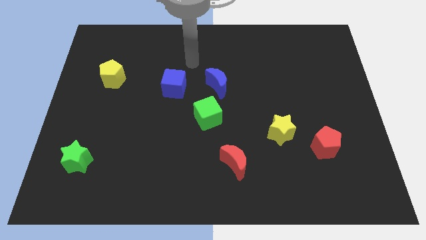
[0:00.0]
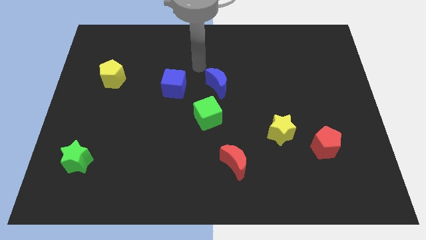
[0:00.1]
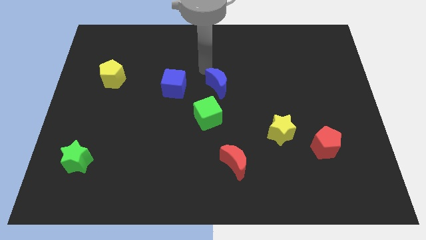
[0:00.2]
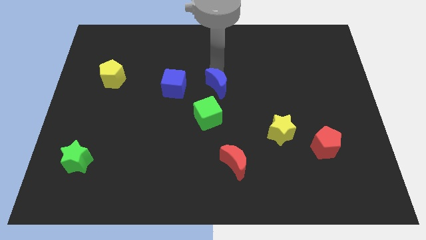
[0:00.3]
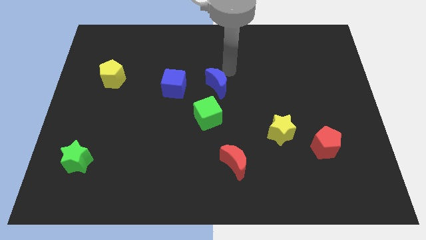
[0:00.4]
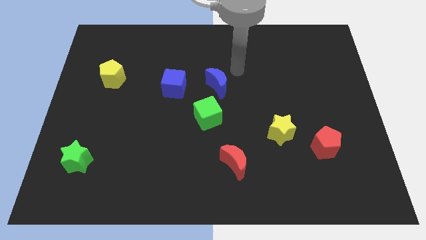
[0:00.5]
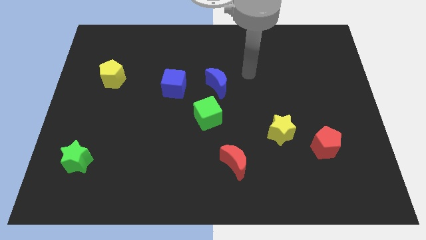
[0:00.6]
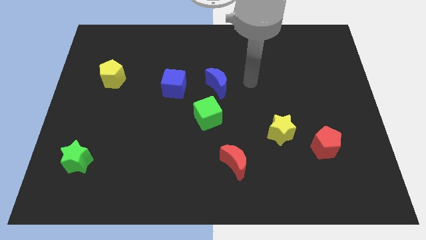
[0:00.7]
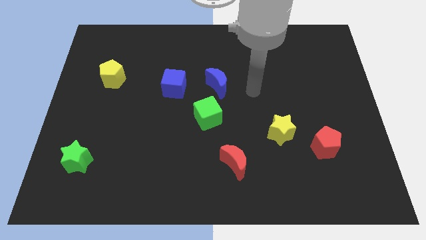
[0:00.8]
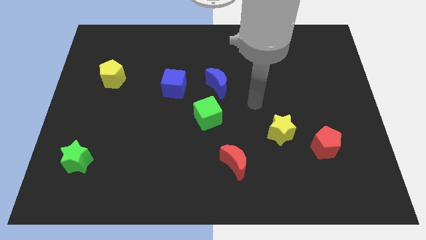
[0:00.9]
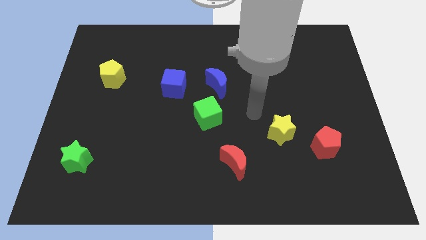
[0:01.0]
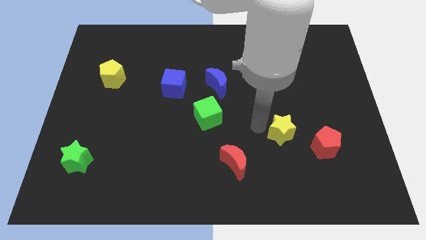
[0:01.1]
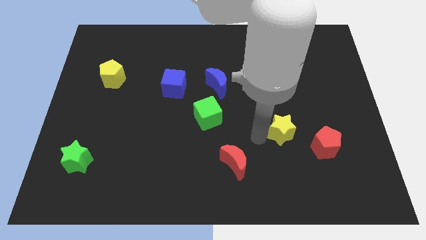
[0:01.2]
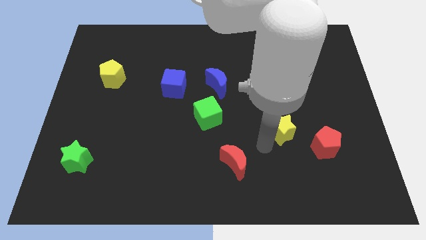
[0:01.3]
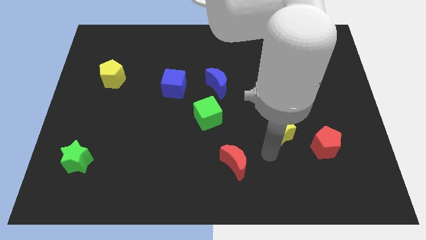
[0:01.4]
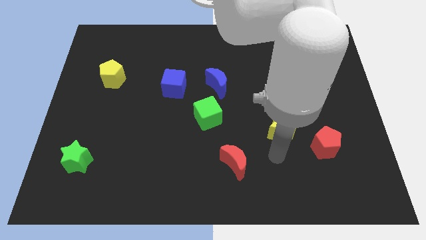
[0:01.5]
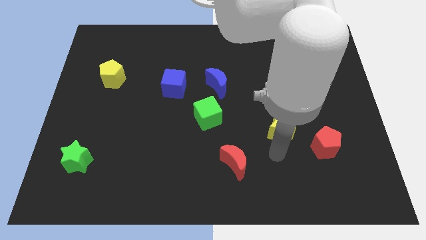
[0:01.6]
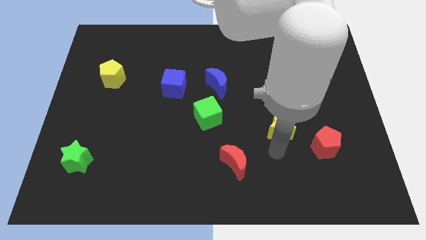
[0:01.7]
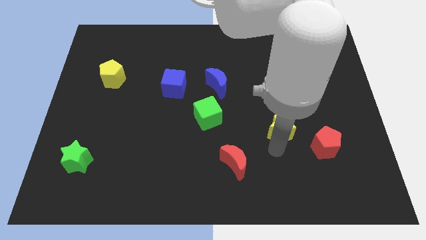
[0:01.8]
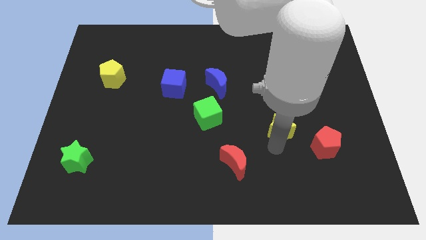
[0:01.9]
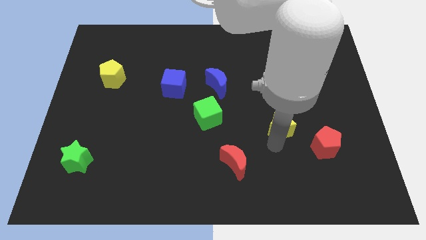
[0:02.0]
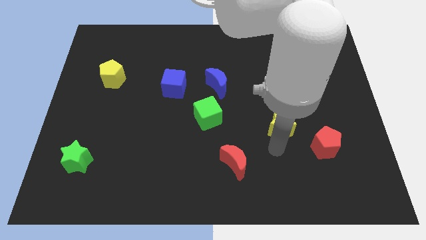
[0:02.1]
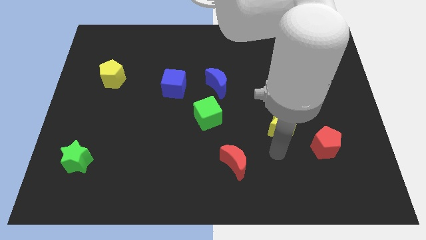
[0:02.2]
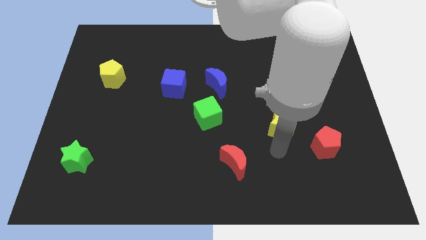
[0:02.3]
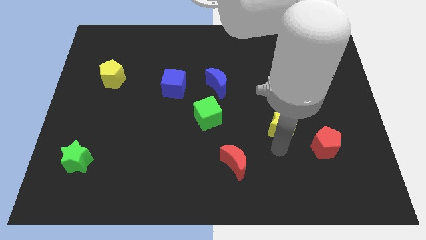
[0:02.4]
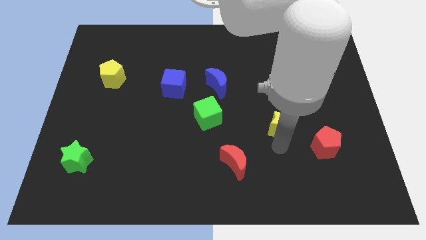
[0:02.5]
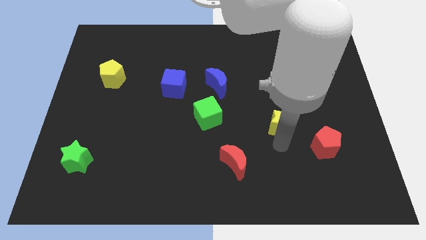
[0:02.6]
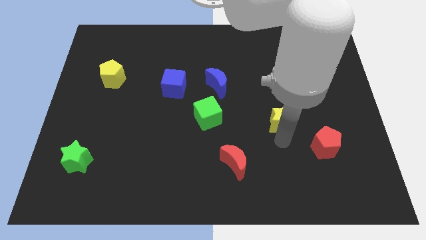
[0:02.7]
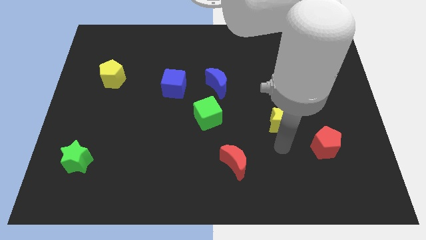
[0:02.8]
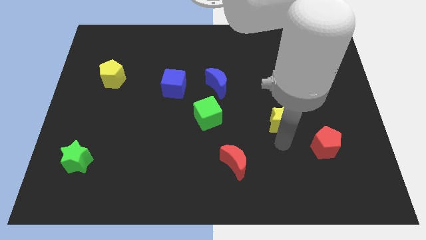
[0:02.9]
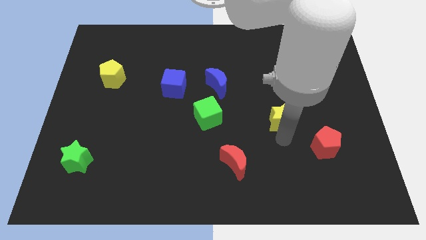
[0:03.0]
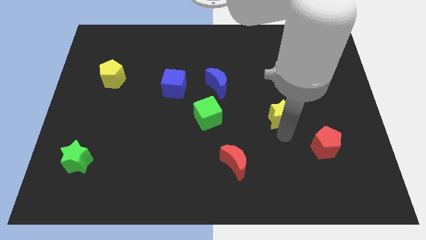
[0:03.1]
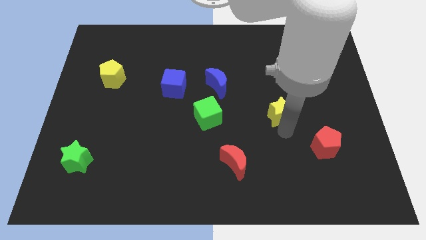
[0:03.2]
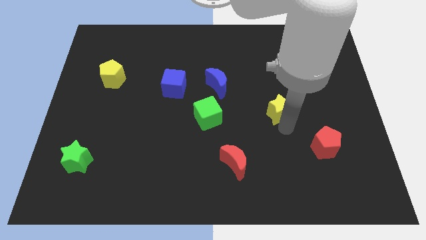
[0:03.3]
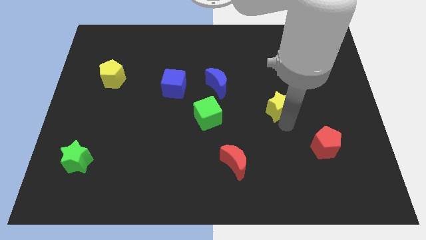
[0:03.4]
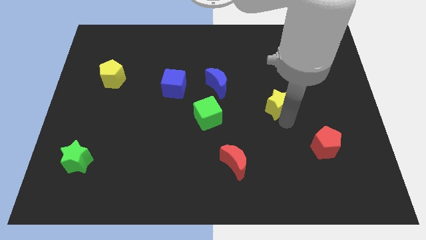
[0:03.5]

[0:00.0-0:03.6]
slide the yellow star up a bit

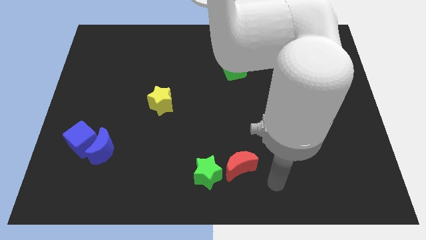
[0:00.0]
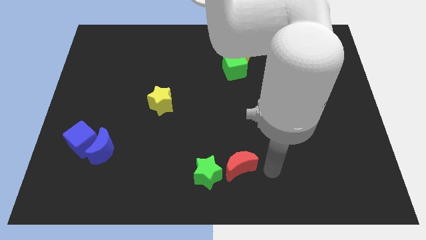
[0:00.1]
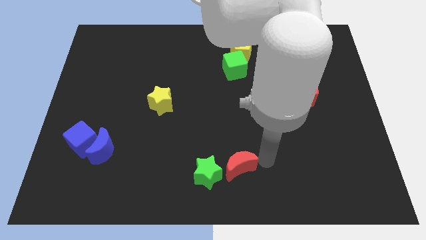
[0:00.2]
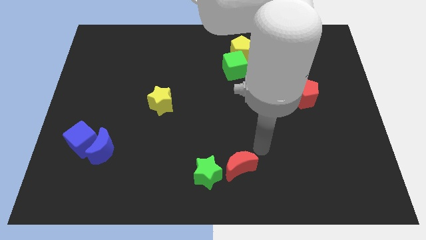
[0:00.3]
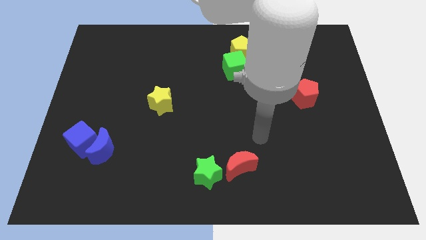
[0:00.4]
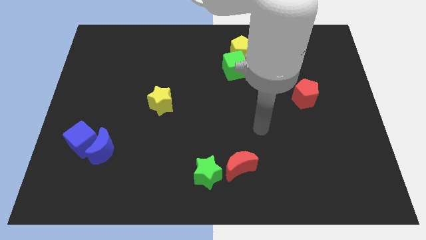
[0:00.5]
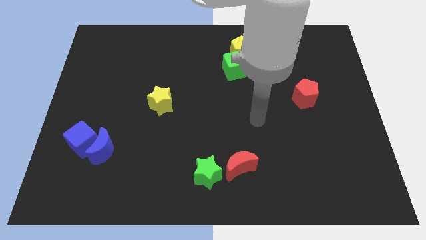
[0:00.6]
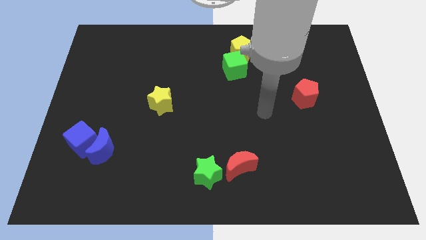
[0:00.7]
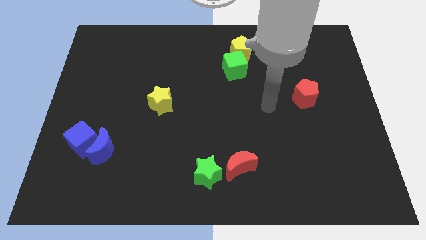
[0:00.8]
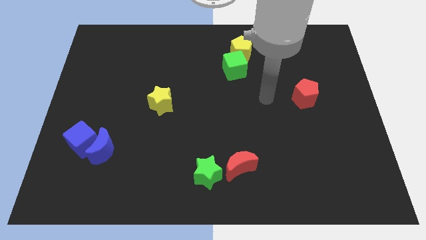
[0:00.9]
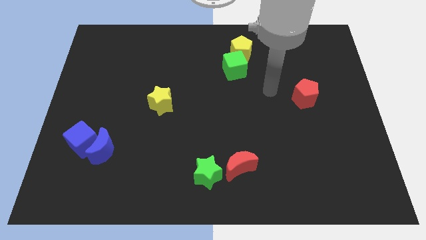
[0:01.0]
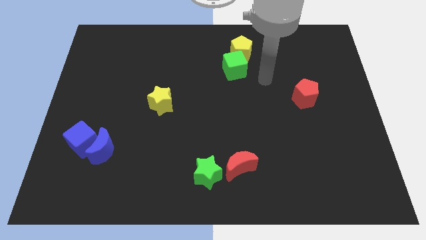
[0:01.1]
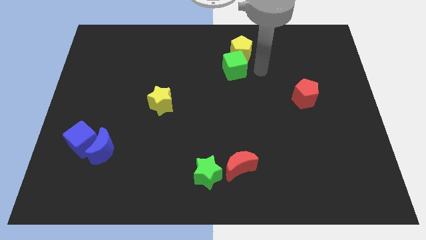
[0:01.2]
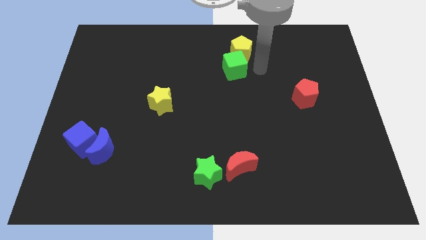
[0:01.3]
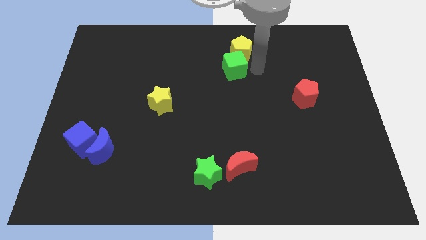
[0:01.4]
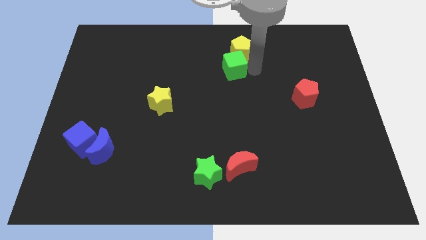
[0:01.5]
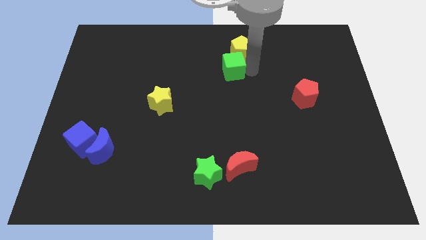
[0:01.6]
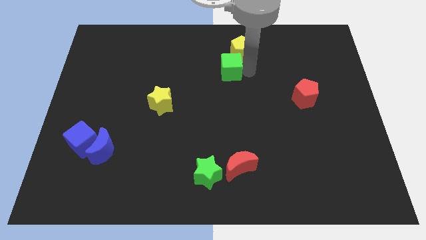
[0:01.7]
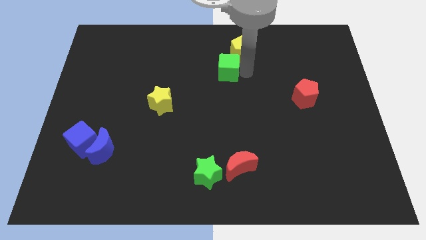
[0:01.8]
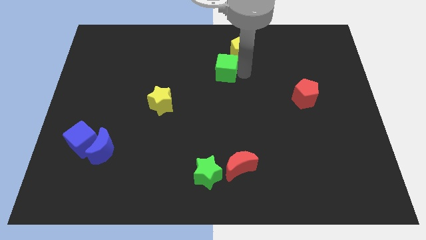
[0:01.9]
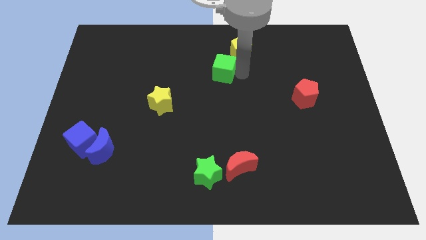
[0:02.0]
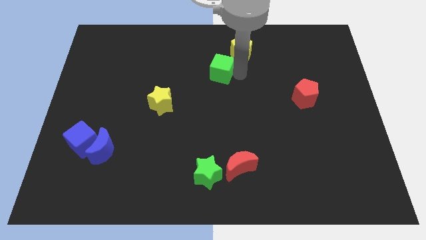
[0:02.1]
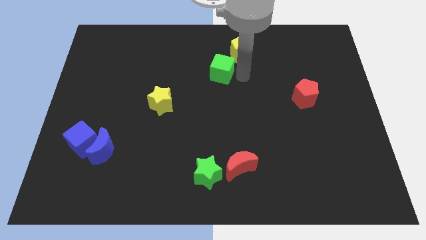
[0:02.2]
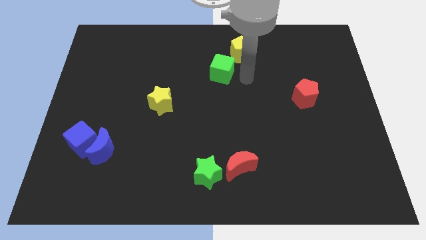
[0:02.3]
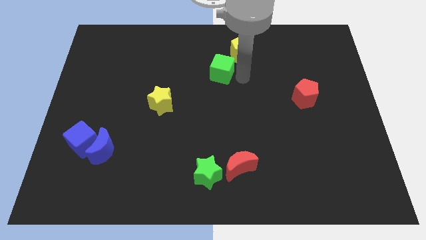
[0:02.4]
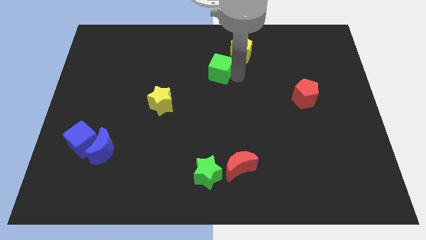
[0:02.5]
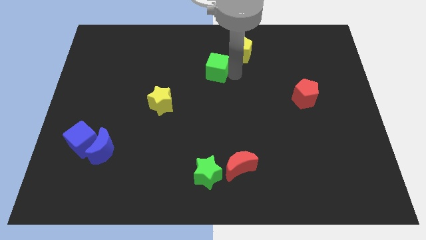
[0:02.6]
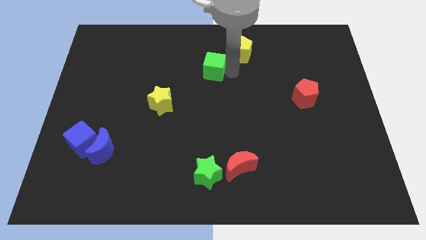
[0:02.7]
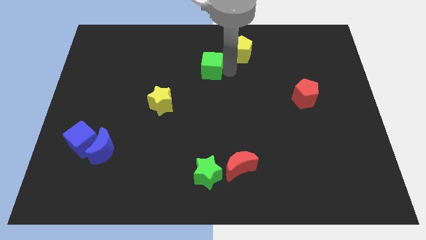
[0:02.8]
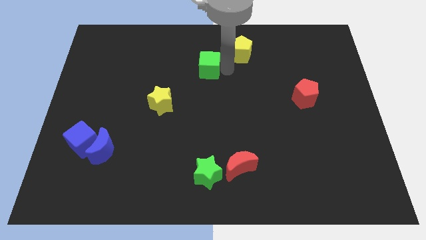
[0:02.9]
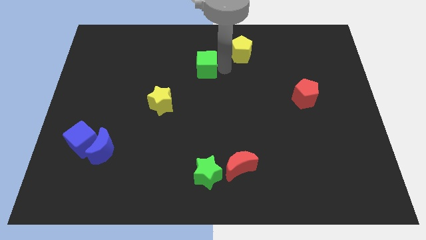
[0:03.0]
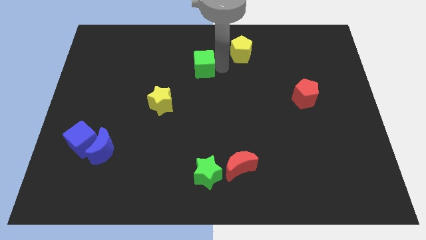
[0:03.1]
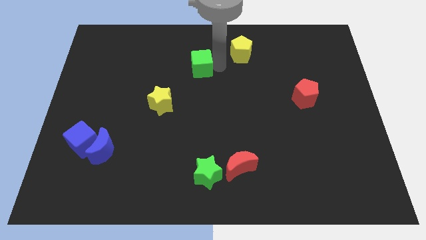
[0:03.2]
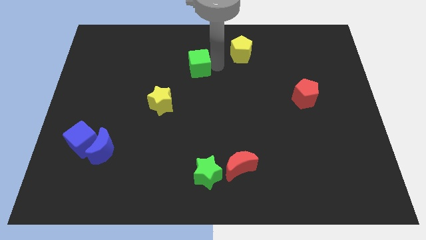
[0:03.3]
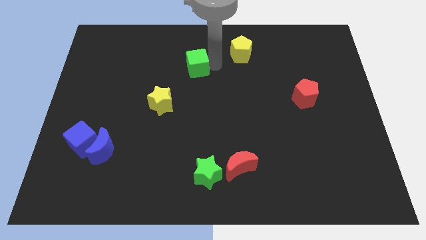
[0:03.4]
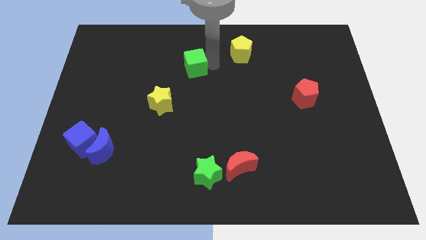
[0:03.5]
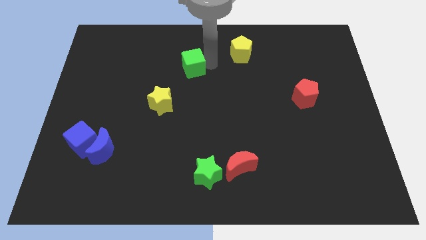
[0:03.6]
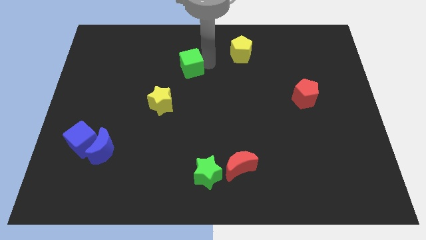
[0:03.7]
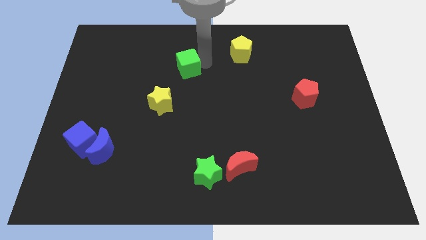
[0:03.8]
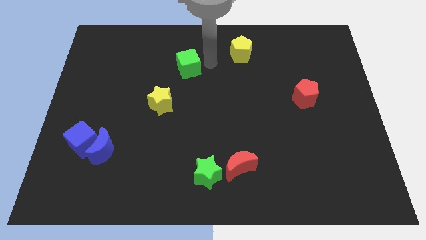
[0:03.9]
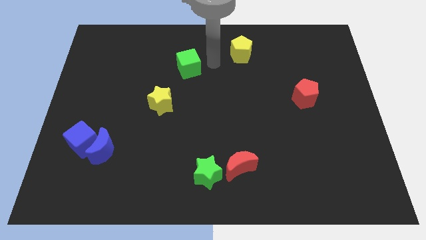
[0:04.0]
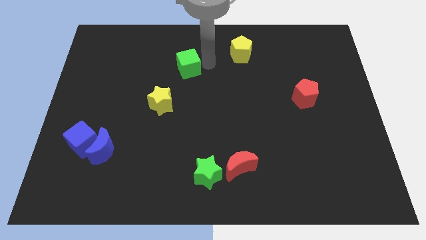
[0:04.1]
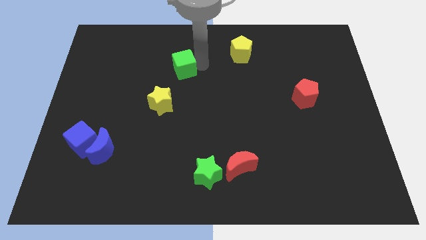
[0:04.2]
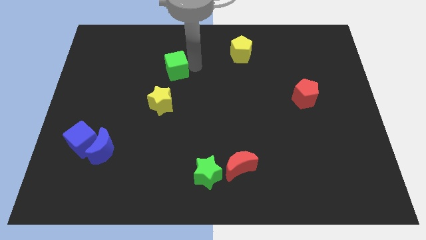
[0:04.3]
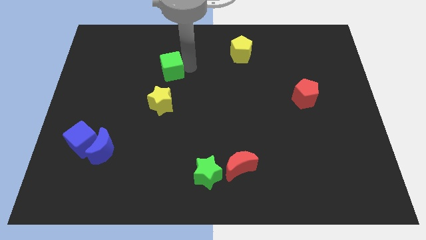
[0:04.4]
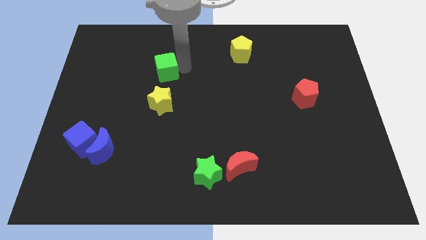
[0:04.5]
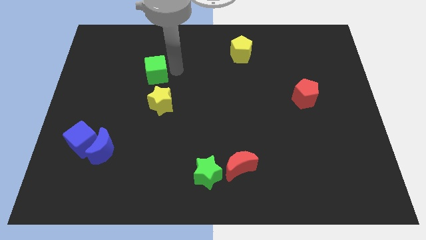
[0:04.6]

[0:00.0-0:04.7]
slide the green cube left
